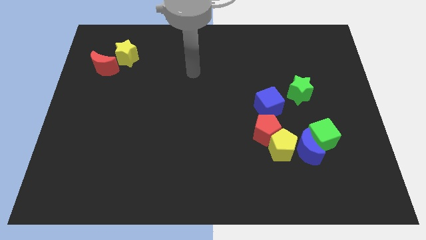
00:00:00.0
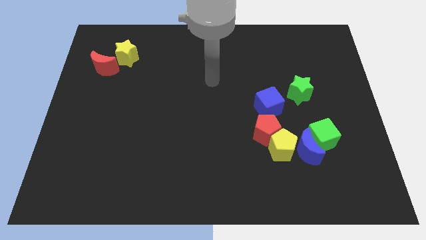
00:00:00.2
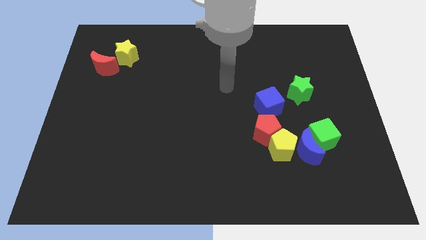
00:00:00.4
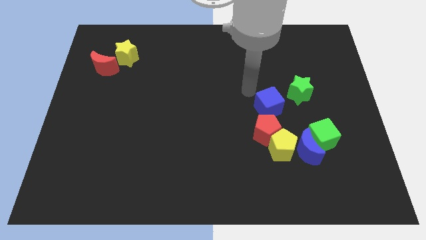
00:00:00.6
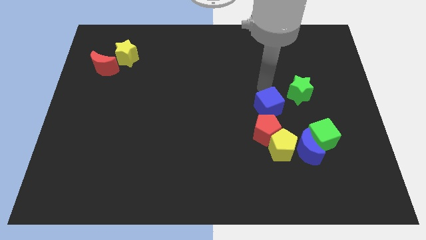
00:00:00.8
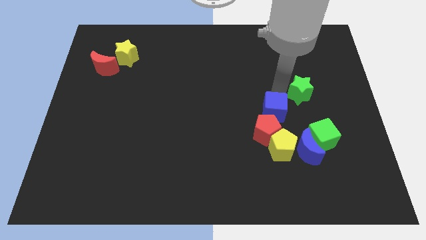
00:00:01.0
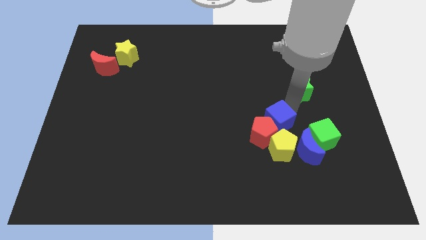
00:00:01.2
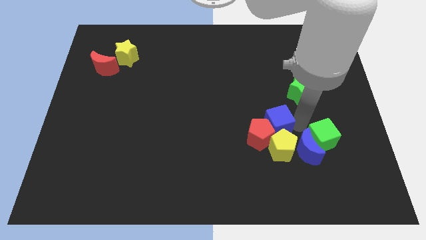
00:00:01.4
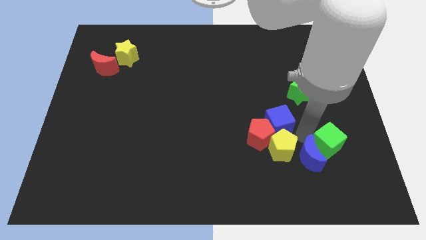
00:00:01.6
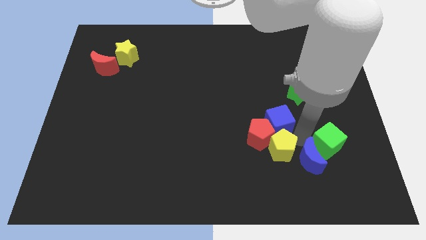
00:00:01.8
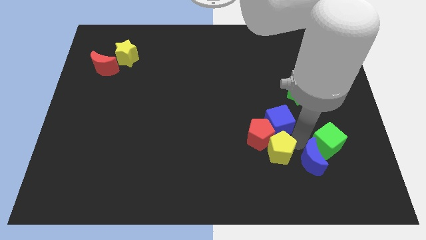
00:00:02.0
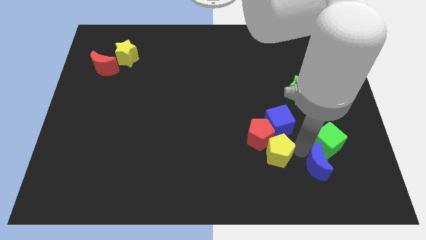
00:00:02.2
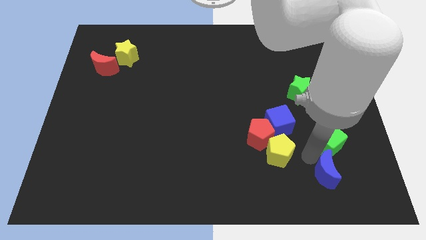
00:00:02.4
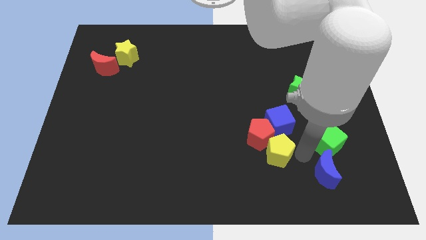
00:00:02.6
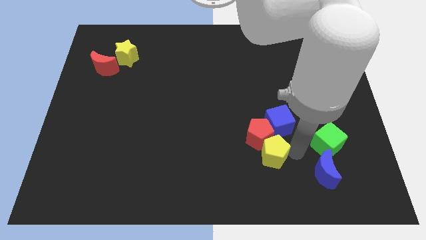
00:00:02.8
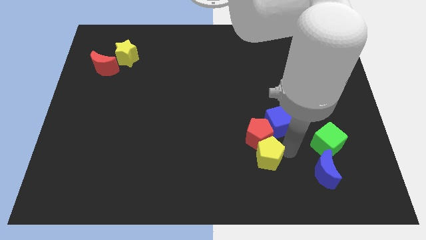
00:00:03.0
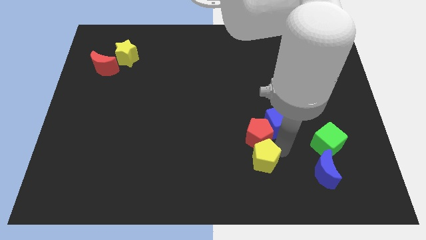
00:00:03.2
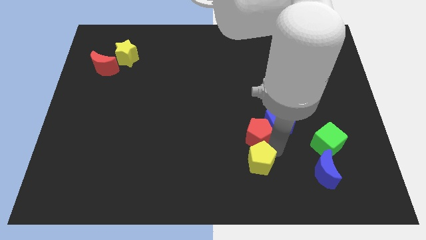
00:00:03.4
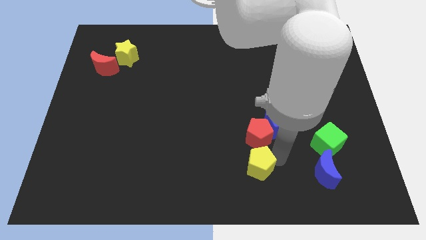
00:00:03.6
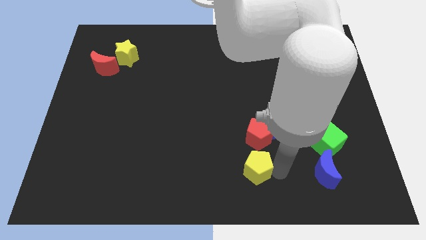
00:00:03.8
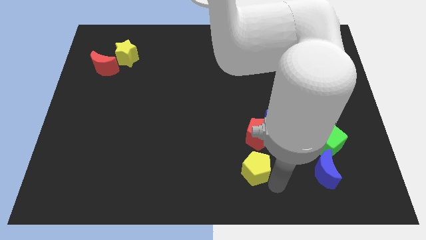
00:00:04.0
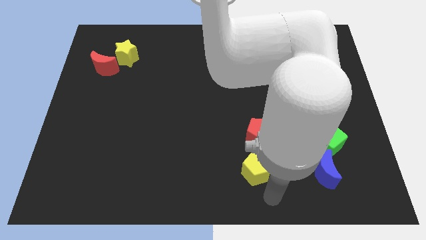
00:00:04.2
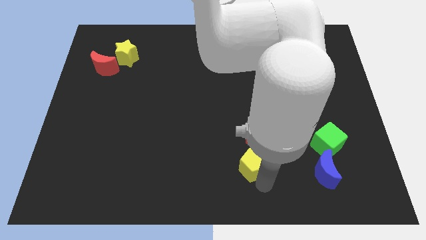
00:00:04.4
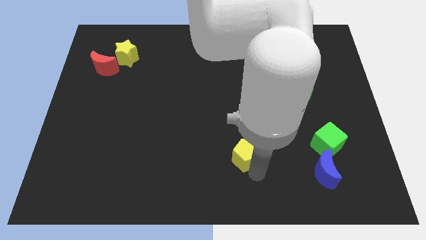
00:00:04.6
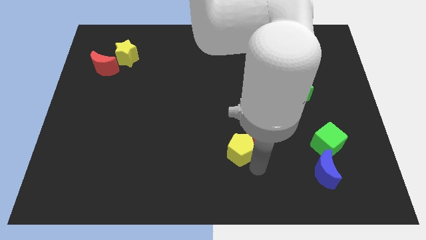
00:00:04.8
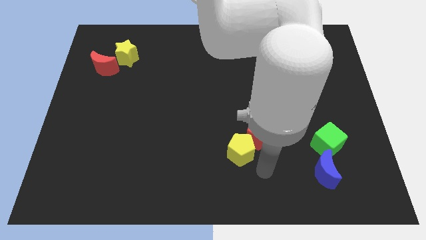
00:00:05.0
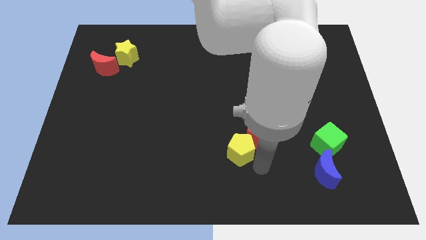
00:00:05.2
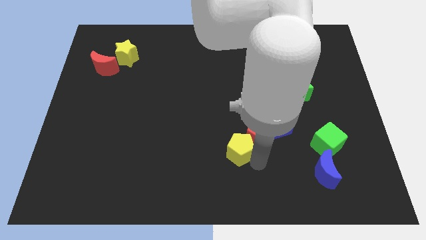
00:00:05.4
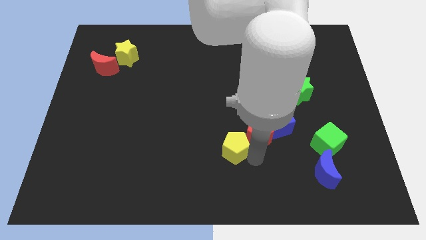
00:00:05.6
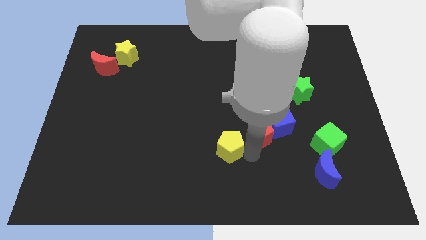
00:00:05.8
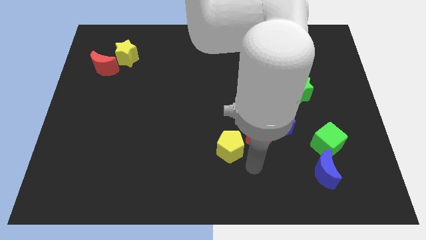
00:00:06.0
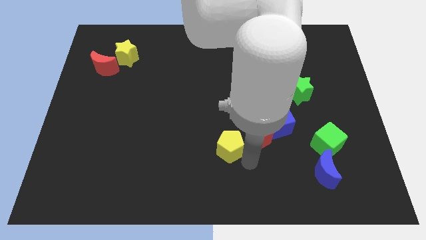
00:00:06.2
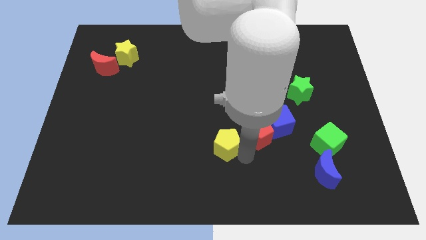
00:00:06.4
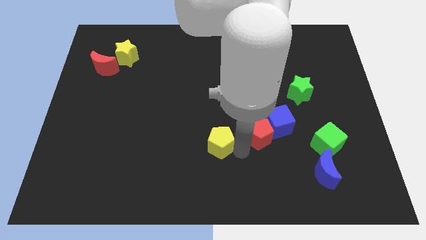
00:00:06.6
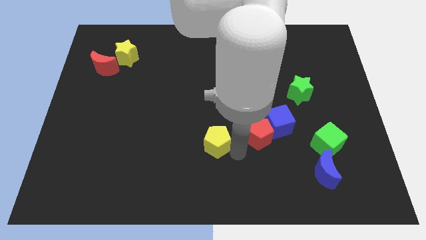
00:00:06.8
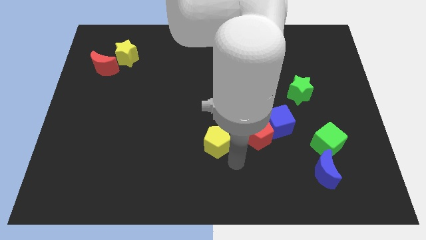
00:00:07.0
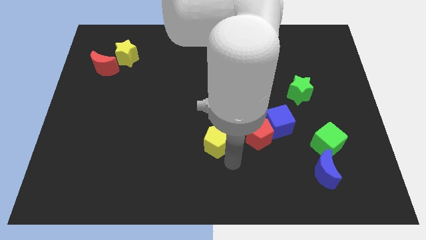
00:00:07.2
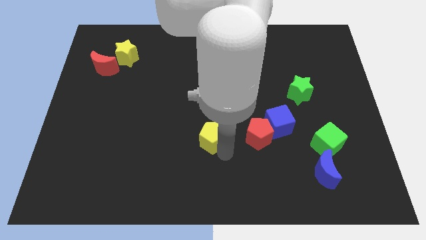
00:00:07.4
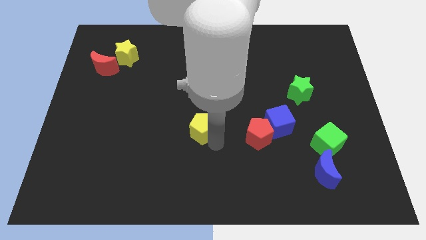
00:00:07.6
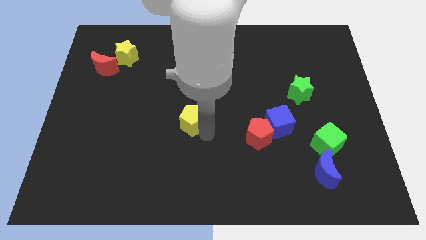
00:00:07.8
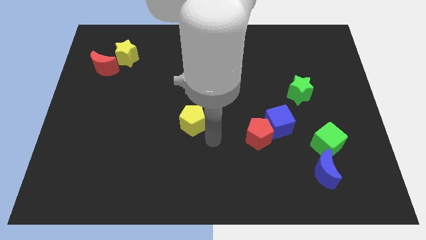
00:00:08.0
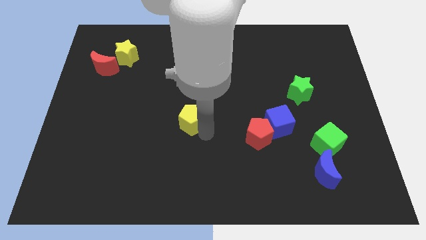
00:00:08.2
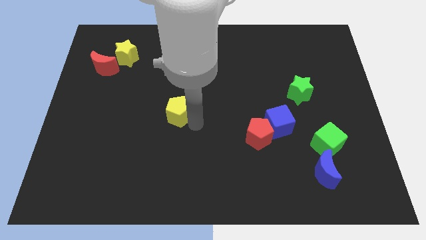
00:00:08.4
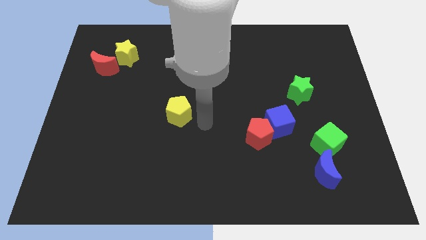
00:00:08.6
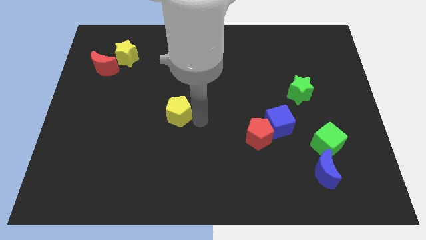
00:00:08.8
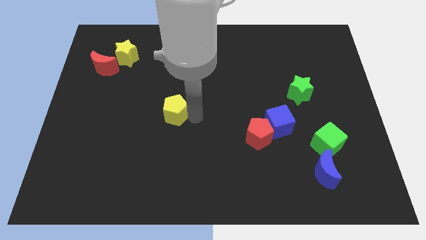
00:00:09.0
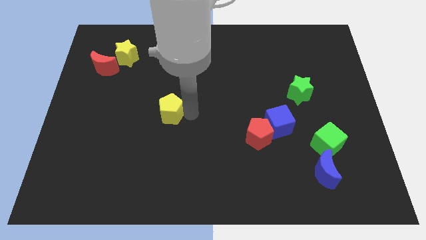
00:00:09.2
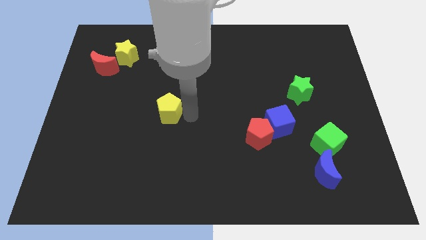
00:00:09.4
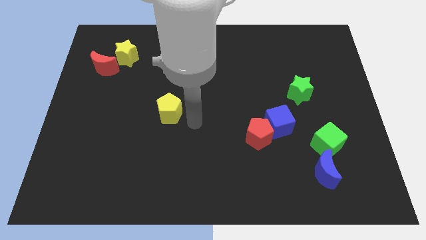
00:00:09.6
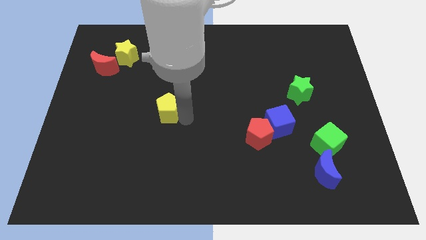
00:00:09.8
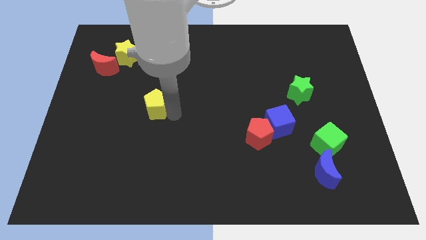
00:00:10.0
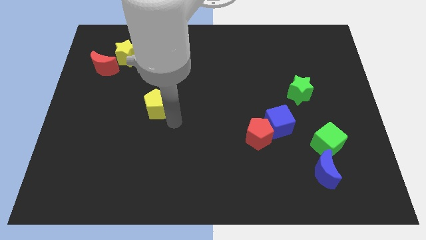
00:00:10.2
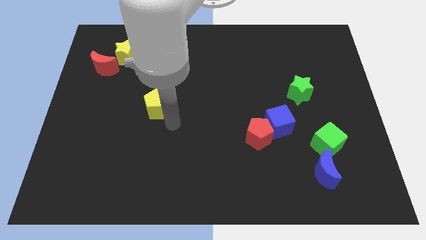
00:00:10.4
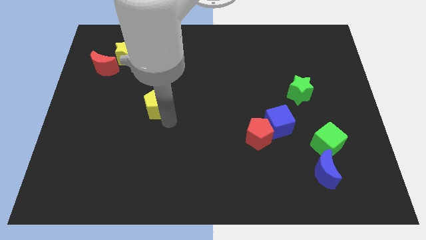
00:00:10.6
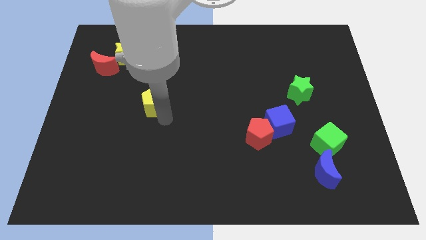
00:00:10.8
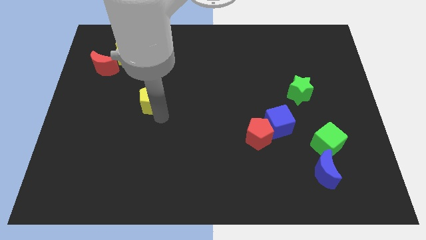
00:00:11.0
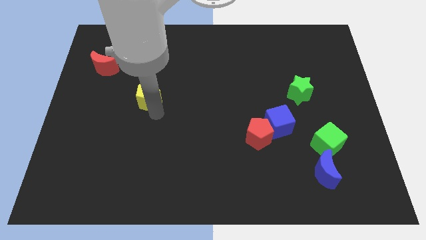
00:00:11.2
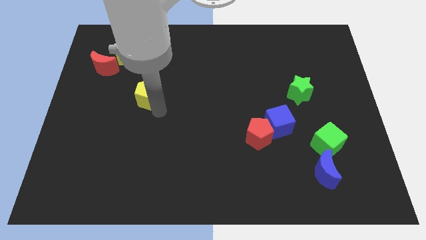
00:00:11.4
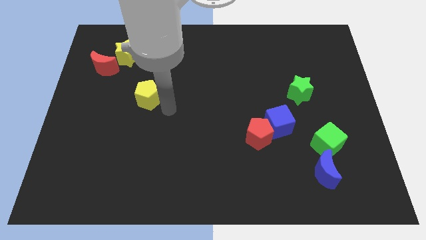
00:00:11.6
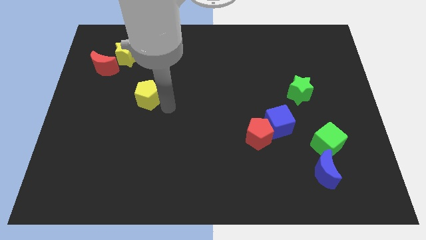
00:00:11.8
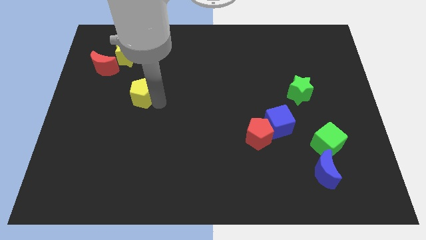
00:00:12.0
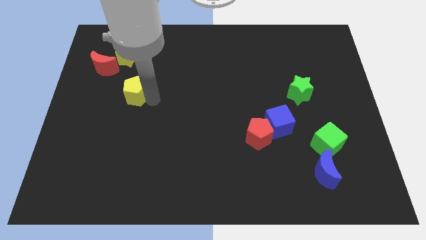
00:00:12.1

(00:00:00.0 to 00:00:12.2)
push the yellow pentagon to the bottom side of the yellow star

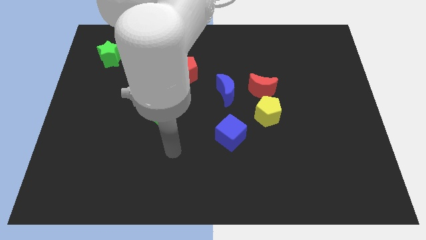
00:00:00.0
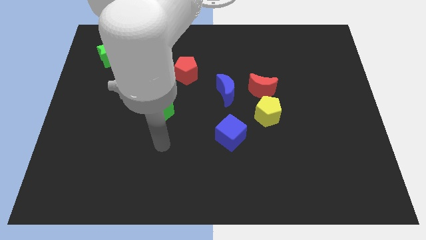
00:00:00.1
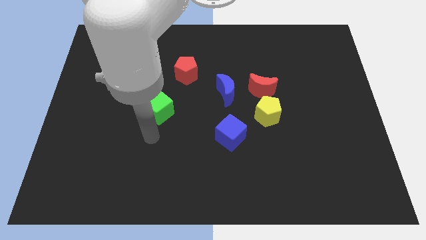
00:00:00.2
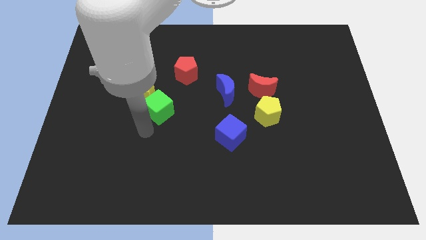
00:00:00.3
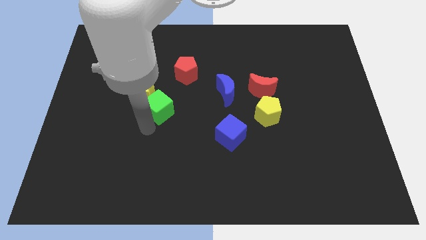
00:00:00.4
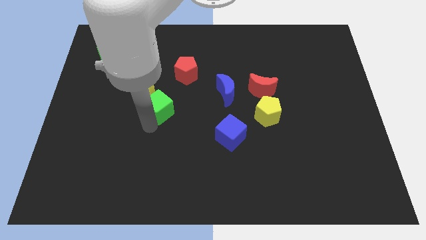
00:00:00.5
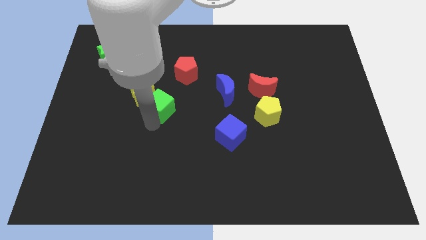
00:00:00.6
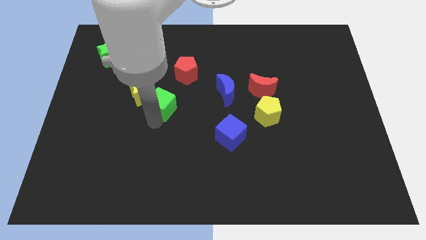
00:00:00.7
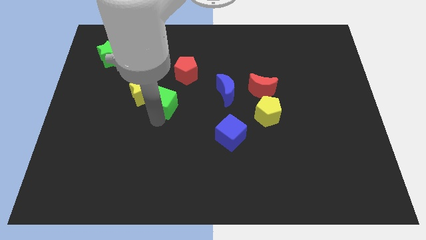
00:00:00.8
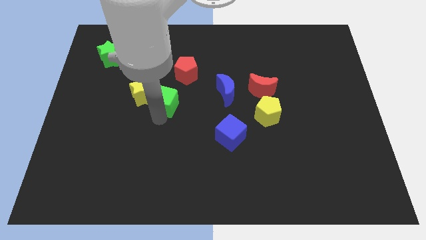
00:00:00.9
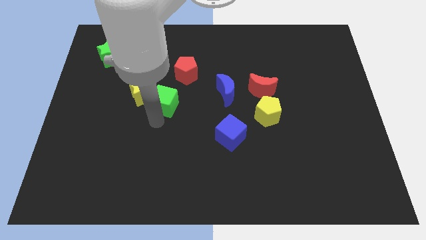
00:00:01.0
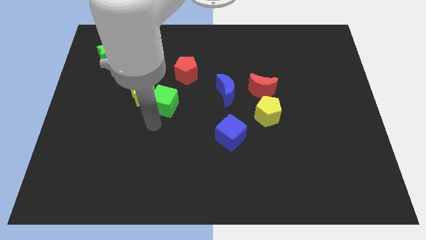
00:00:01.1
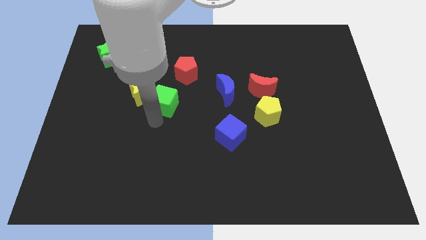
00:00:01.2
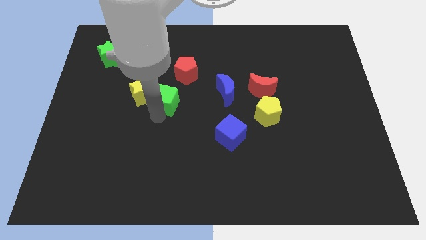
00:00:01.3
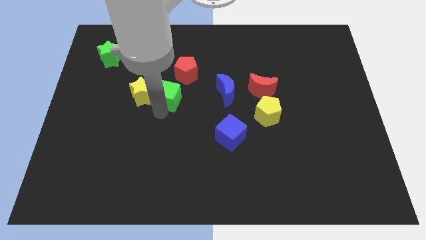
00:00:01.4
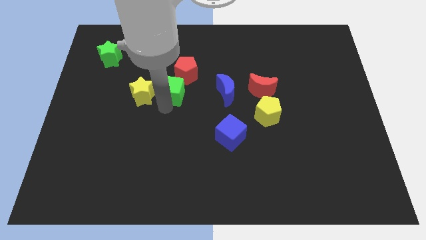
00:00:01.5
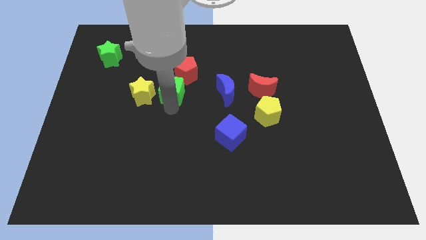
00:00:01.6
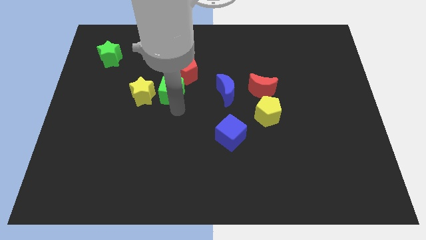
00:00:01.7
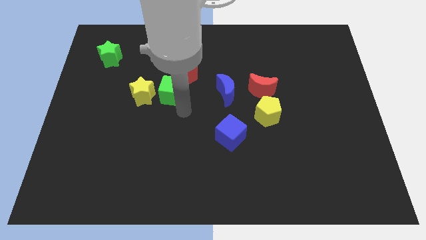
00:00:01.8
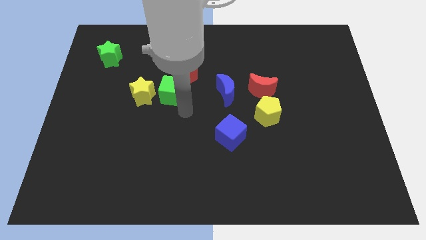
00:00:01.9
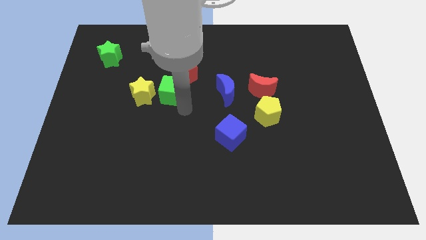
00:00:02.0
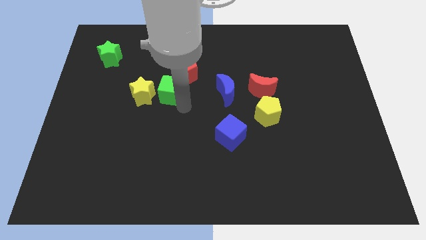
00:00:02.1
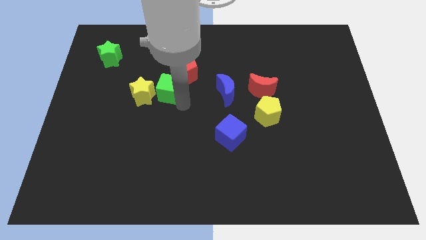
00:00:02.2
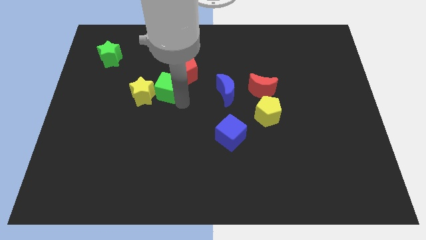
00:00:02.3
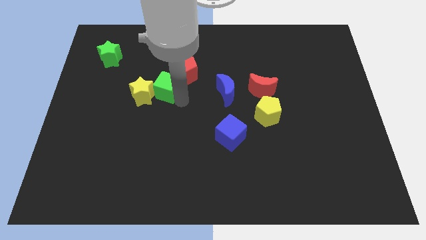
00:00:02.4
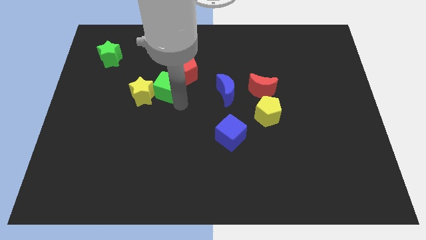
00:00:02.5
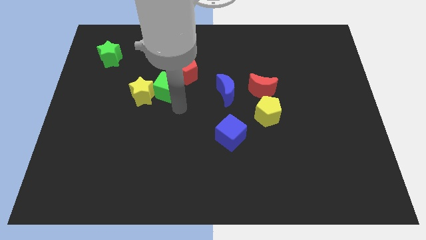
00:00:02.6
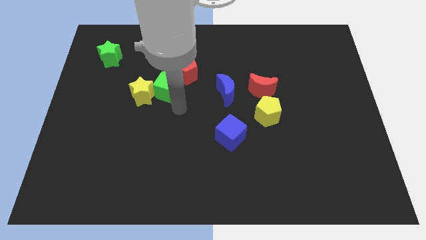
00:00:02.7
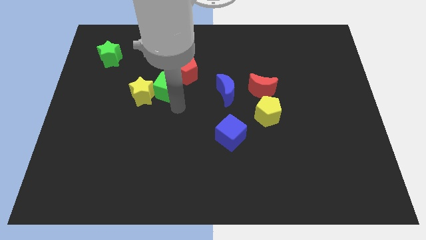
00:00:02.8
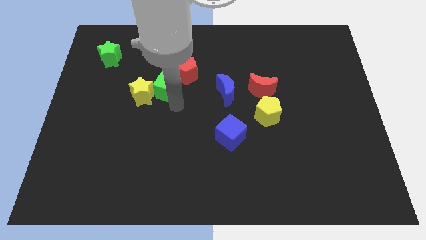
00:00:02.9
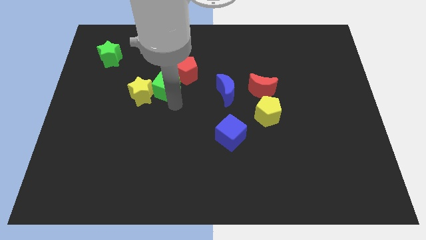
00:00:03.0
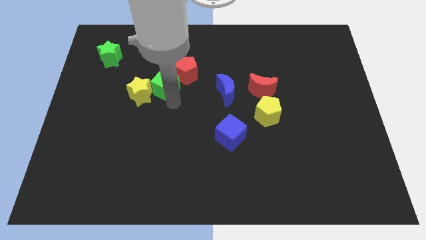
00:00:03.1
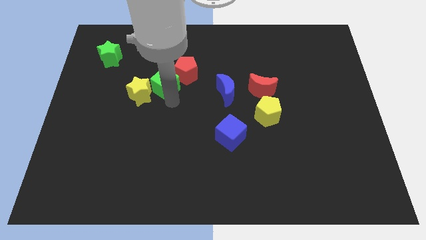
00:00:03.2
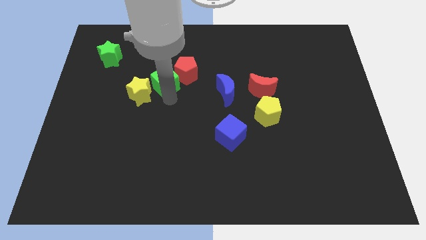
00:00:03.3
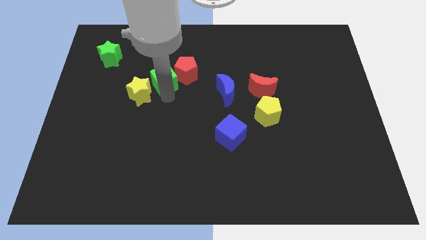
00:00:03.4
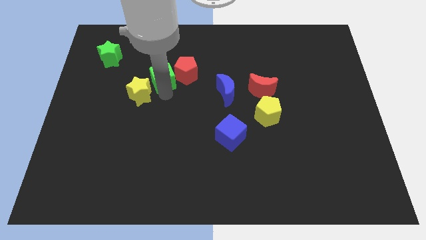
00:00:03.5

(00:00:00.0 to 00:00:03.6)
push the green cube to the top side of the yellow star
